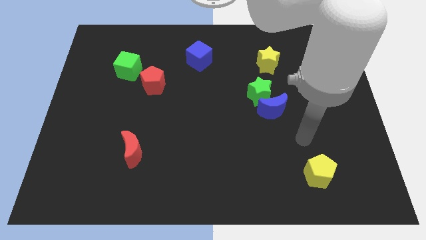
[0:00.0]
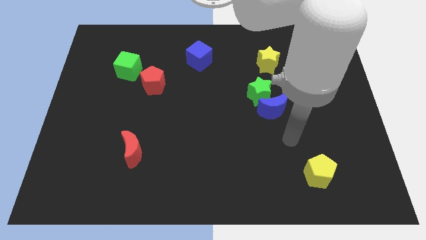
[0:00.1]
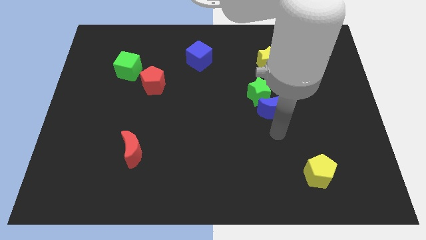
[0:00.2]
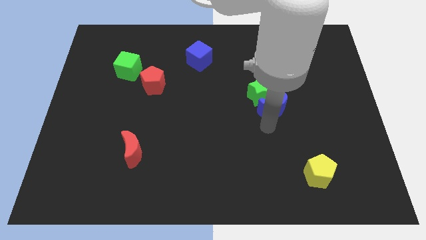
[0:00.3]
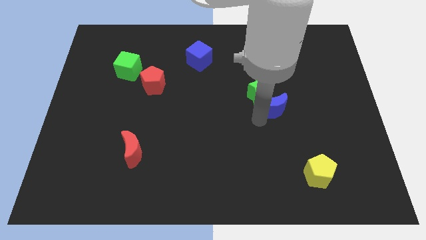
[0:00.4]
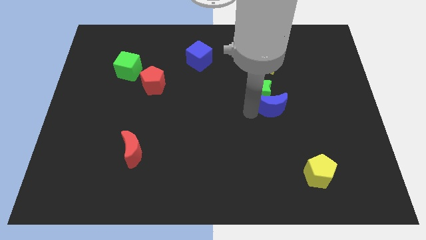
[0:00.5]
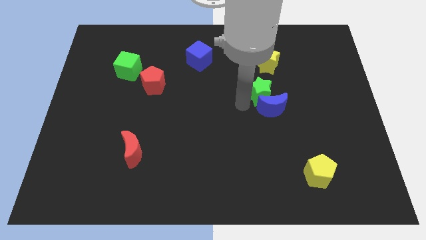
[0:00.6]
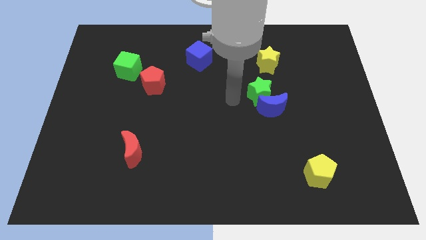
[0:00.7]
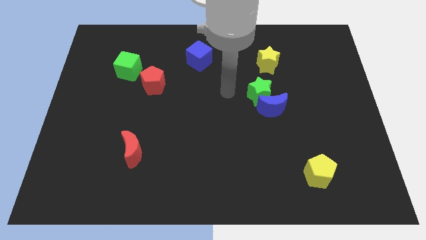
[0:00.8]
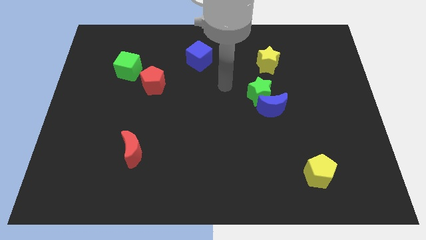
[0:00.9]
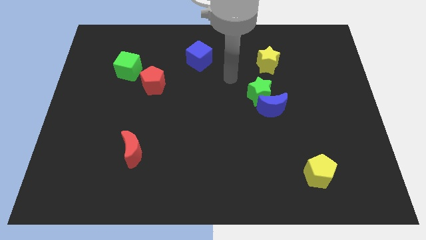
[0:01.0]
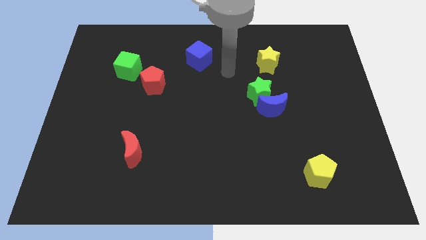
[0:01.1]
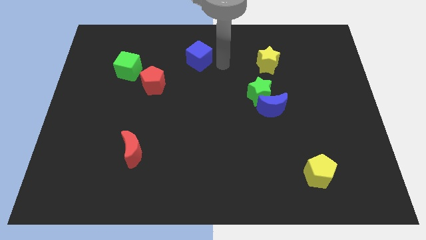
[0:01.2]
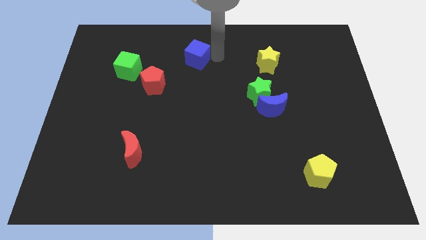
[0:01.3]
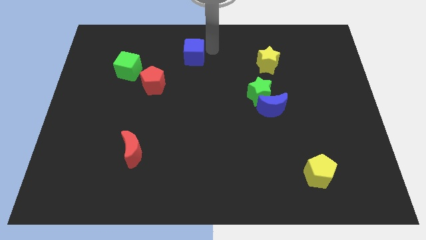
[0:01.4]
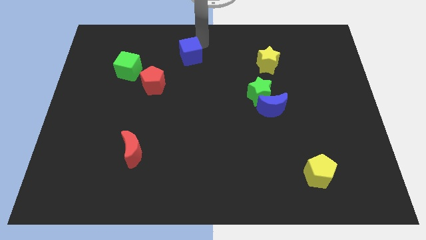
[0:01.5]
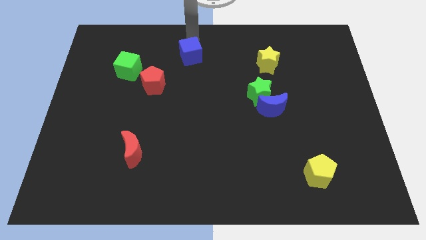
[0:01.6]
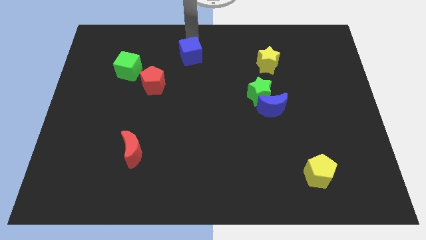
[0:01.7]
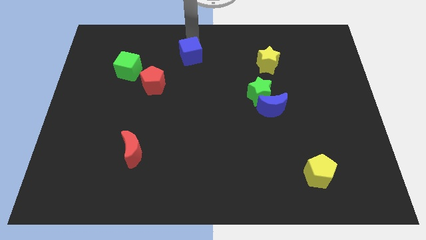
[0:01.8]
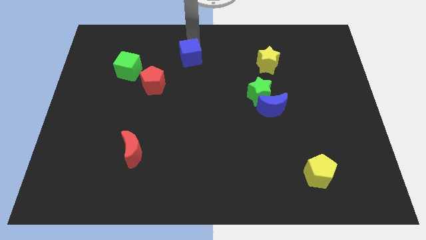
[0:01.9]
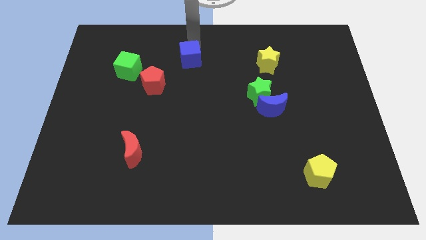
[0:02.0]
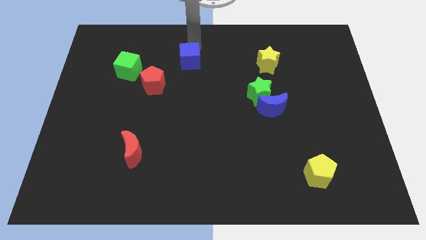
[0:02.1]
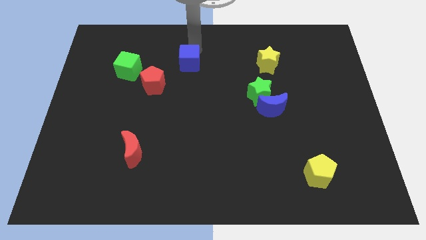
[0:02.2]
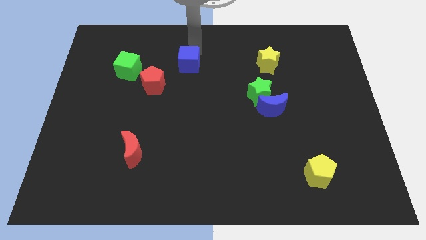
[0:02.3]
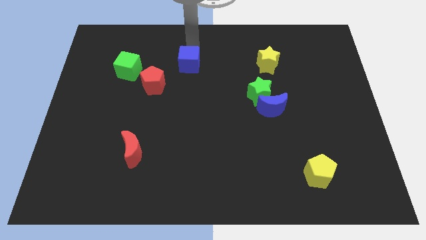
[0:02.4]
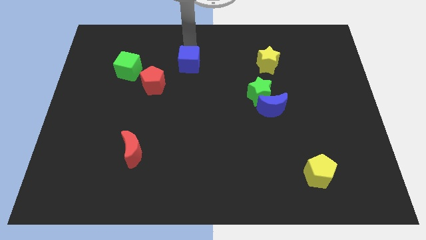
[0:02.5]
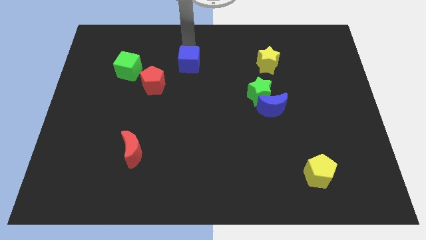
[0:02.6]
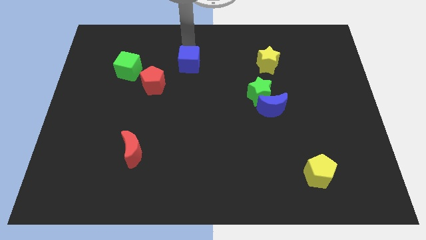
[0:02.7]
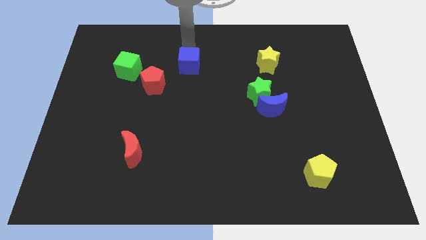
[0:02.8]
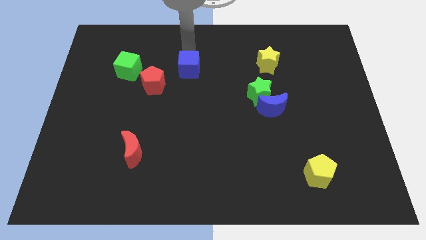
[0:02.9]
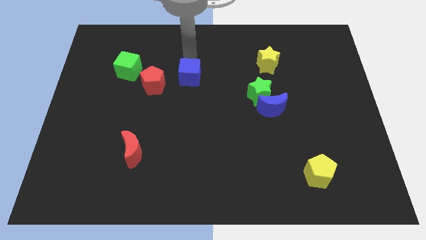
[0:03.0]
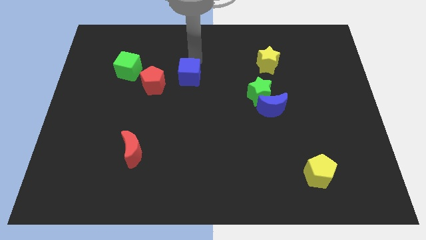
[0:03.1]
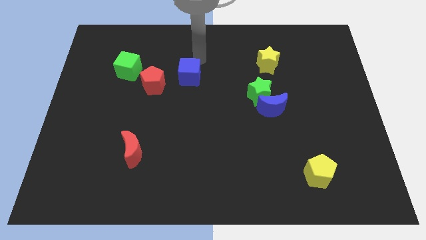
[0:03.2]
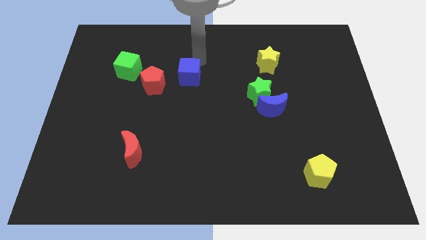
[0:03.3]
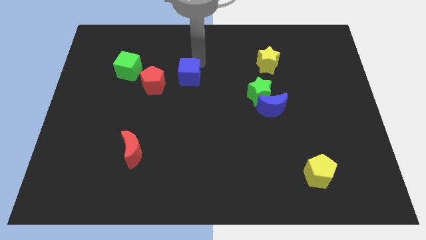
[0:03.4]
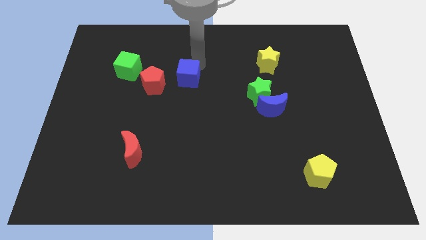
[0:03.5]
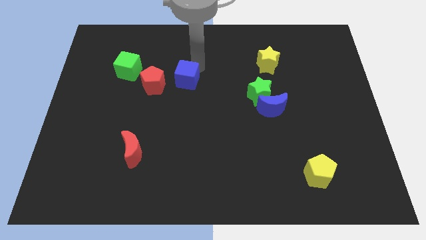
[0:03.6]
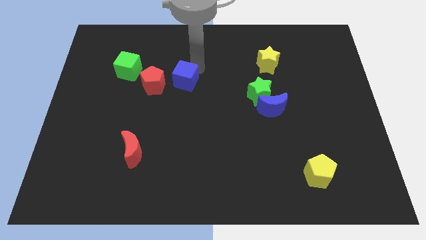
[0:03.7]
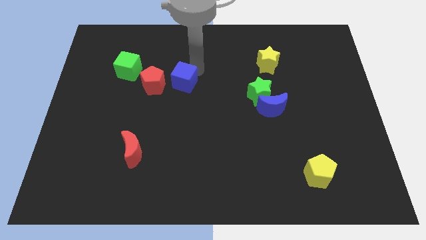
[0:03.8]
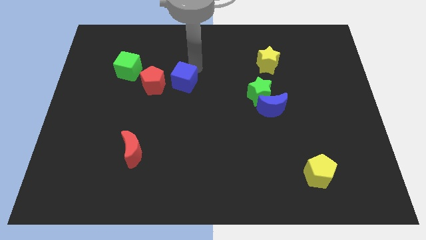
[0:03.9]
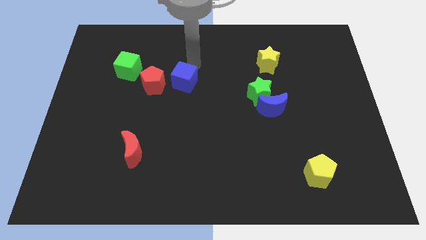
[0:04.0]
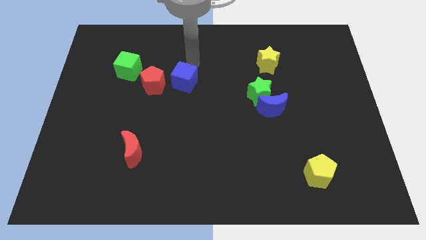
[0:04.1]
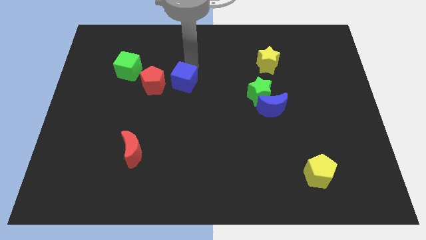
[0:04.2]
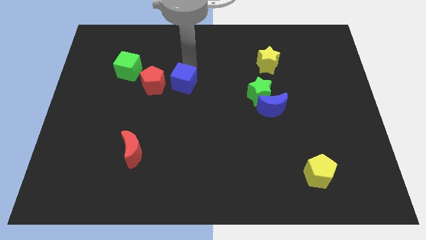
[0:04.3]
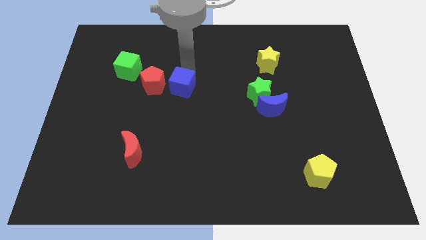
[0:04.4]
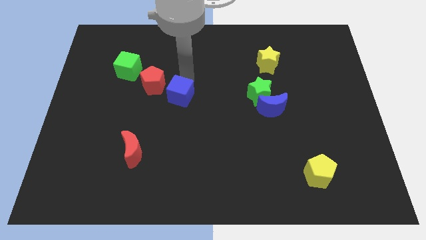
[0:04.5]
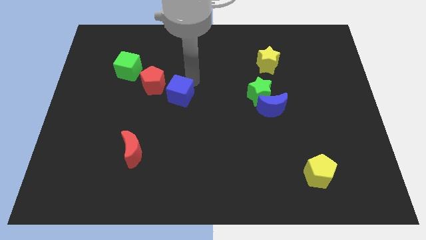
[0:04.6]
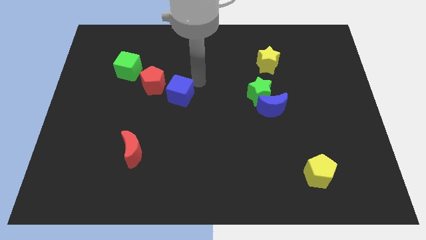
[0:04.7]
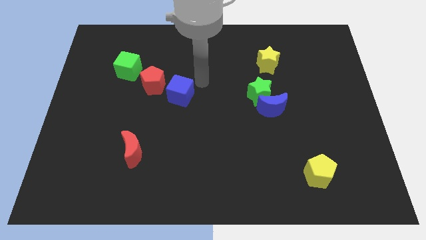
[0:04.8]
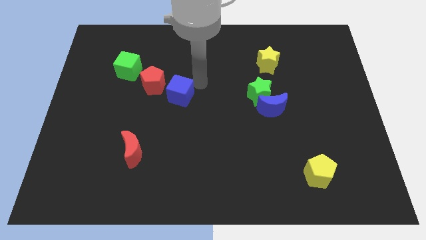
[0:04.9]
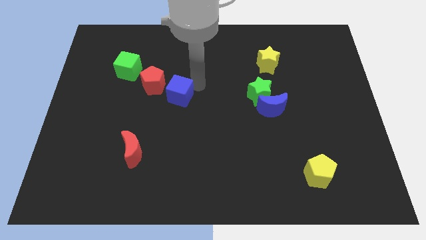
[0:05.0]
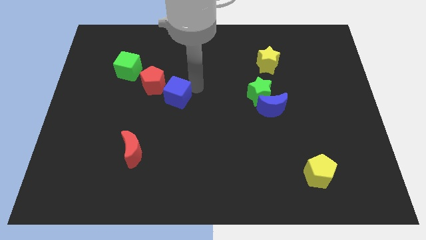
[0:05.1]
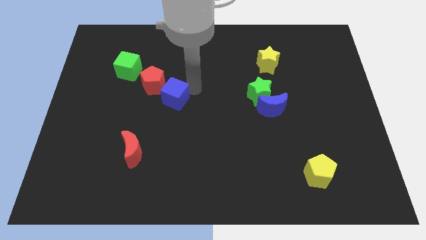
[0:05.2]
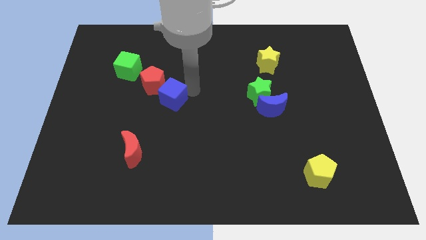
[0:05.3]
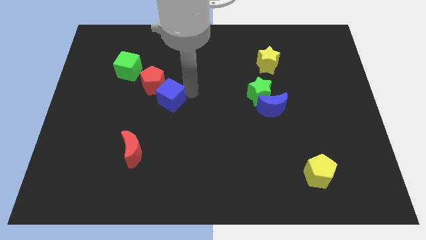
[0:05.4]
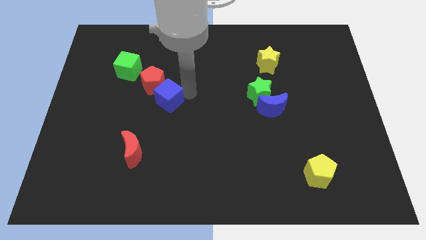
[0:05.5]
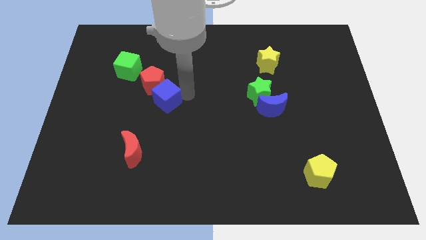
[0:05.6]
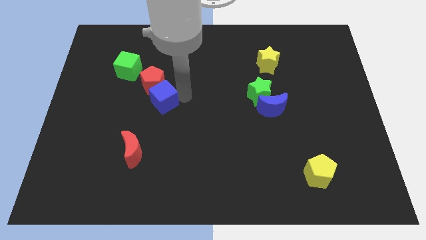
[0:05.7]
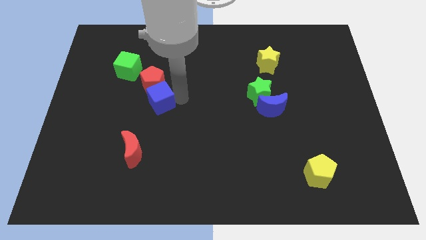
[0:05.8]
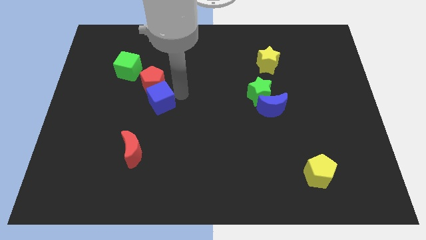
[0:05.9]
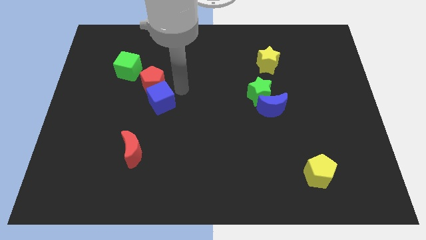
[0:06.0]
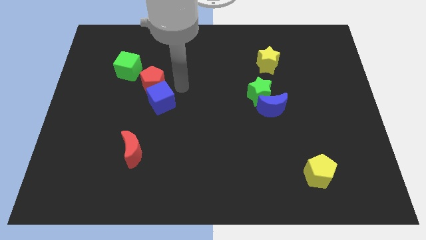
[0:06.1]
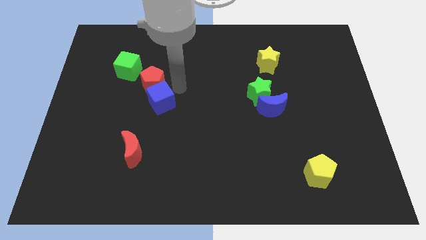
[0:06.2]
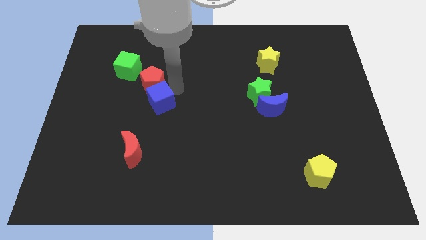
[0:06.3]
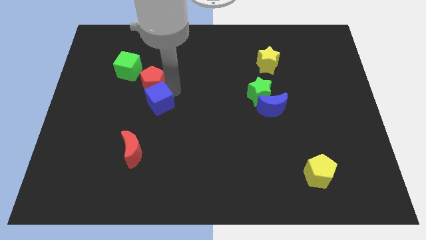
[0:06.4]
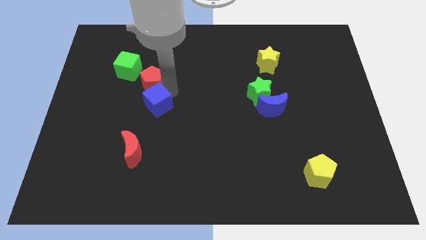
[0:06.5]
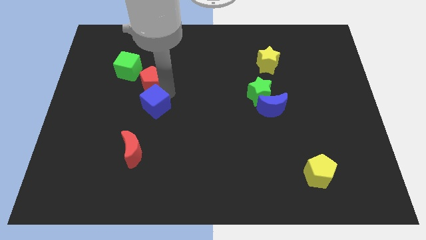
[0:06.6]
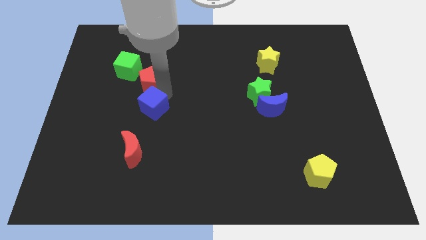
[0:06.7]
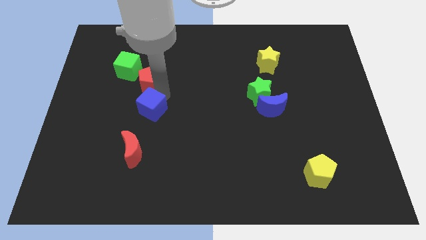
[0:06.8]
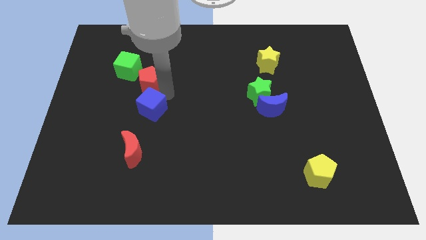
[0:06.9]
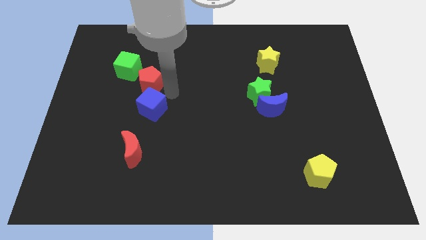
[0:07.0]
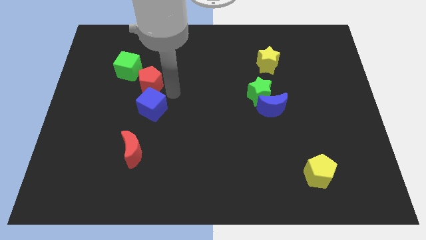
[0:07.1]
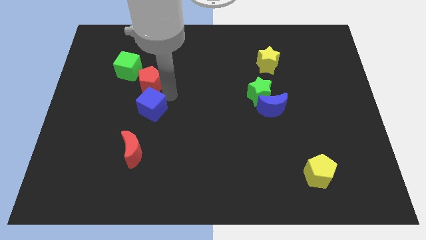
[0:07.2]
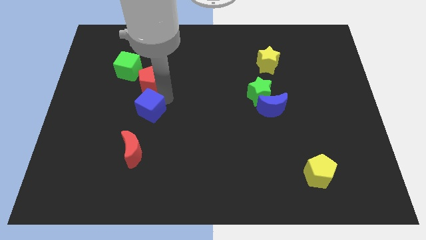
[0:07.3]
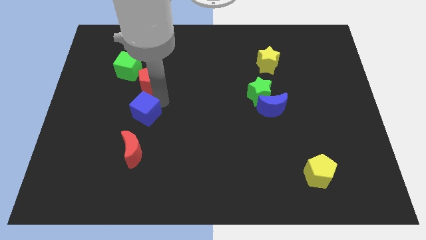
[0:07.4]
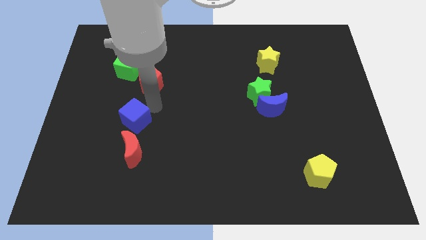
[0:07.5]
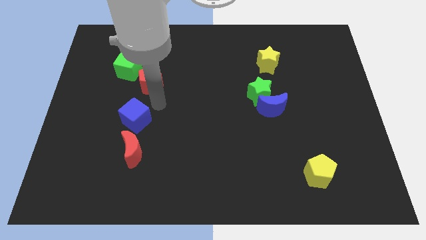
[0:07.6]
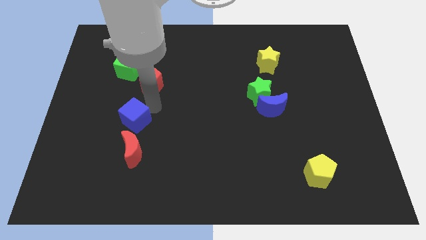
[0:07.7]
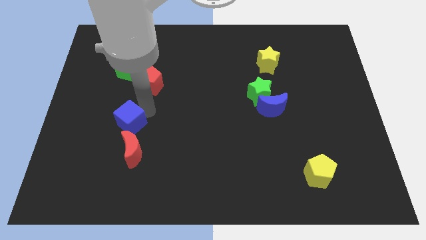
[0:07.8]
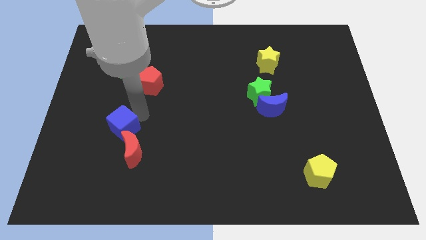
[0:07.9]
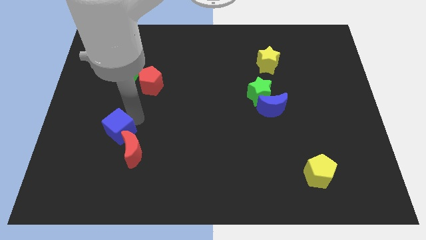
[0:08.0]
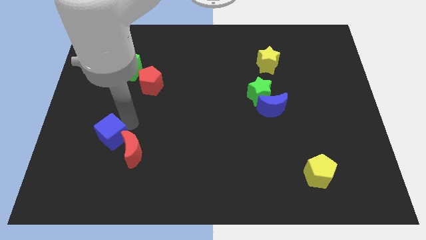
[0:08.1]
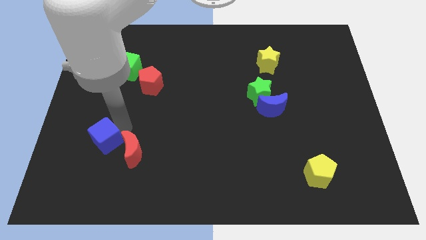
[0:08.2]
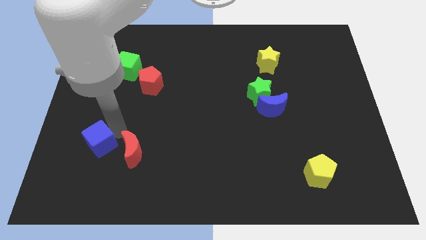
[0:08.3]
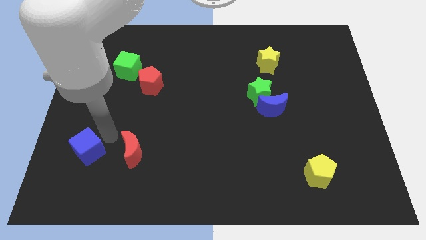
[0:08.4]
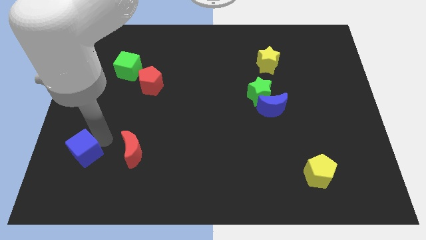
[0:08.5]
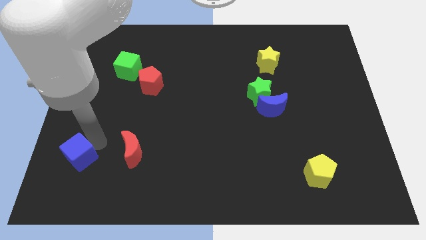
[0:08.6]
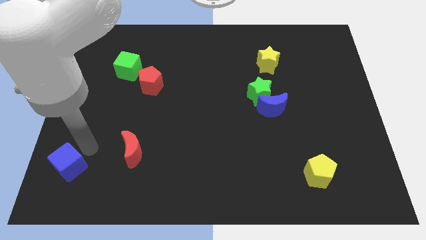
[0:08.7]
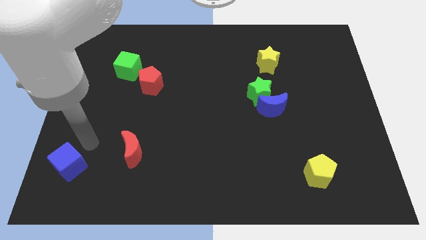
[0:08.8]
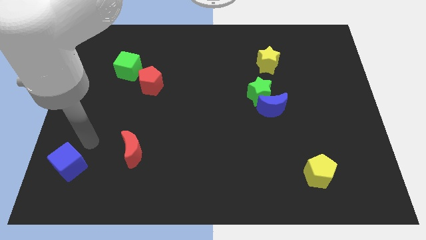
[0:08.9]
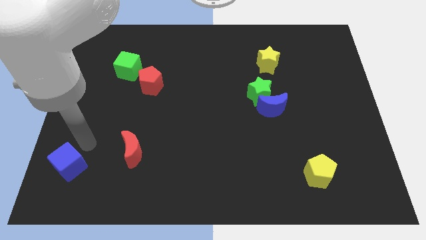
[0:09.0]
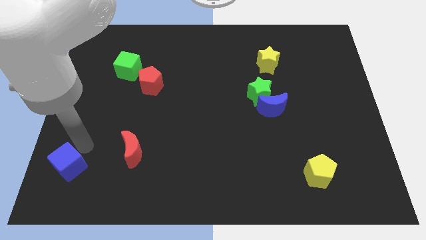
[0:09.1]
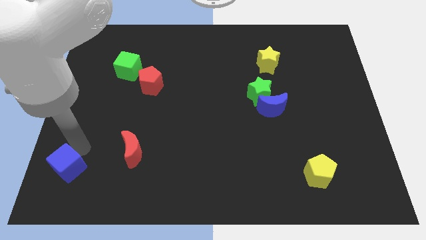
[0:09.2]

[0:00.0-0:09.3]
slide the blue cube to the bottom left corner
